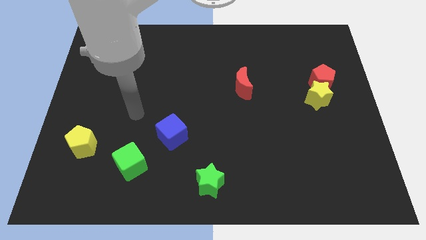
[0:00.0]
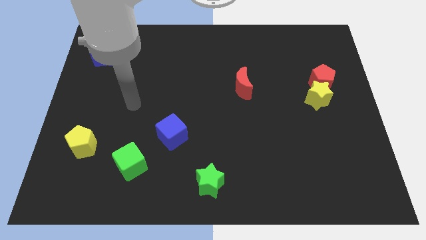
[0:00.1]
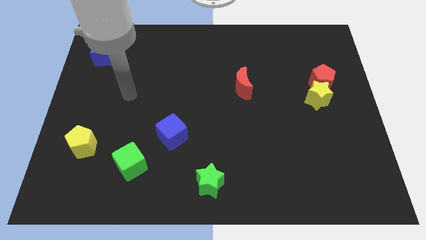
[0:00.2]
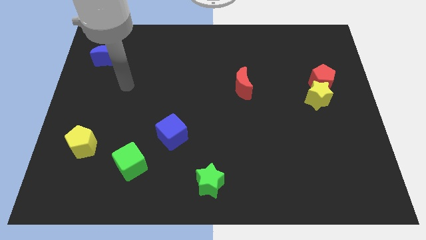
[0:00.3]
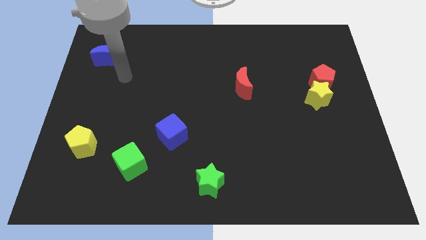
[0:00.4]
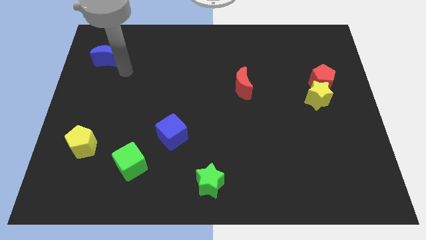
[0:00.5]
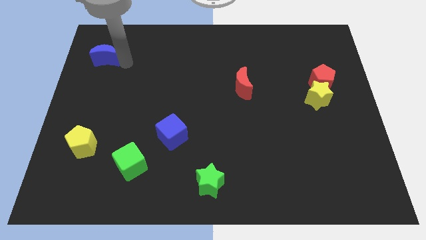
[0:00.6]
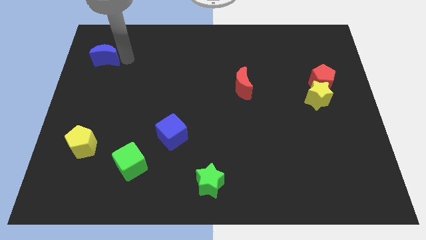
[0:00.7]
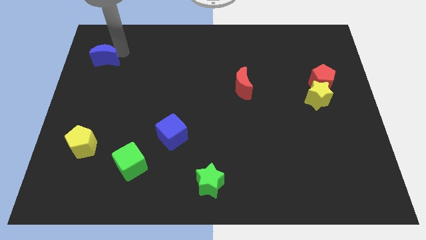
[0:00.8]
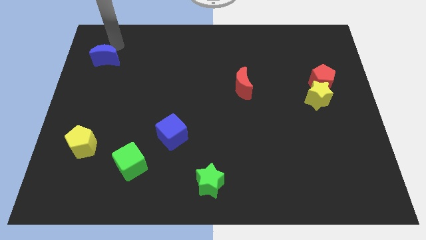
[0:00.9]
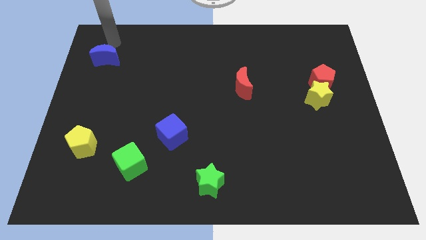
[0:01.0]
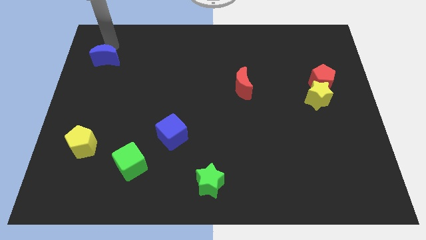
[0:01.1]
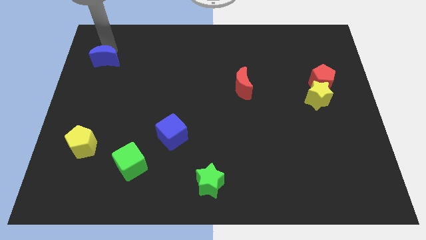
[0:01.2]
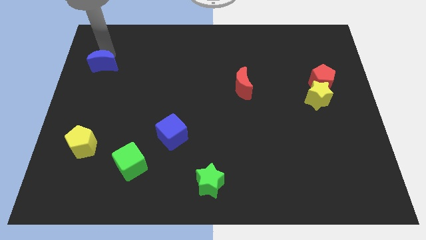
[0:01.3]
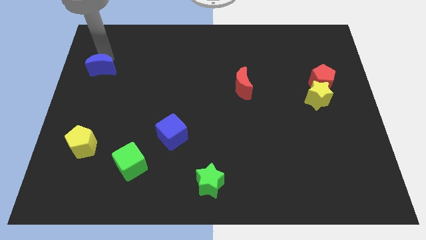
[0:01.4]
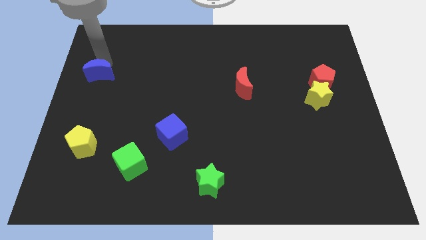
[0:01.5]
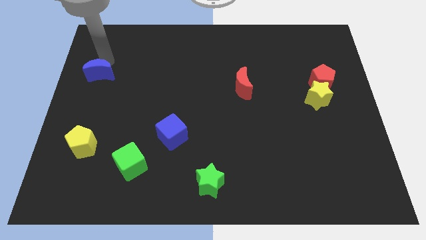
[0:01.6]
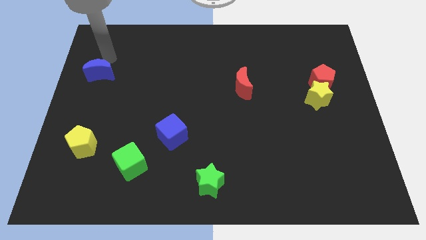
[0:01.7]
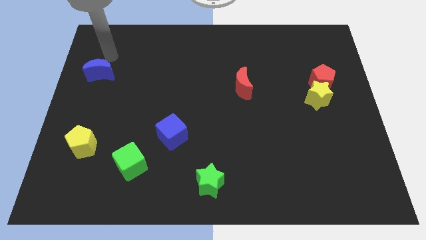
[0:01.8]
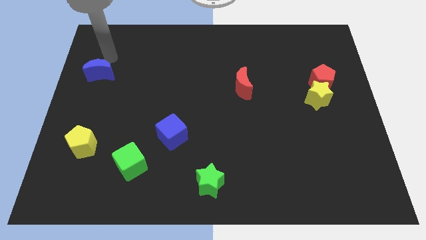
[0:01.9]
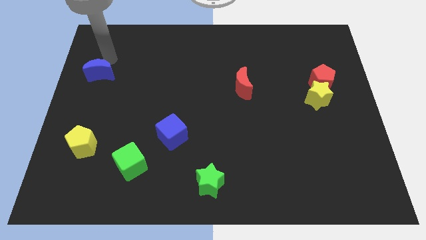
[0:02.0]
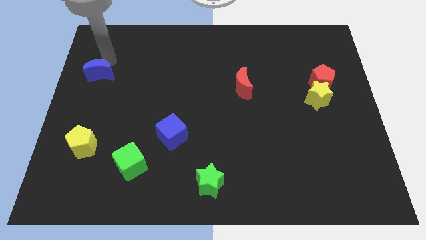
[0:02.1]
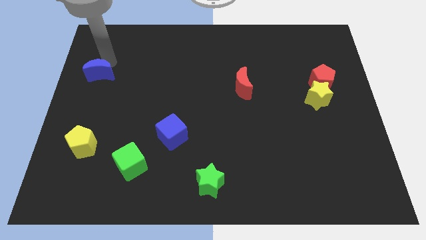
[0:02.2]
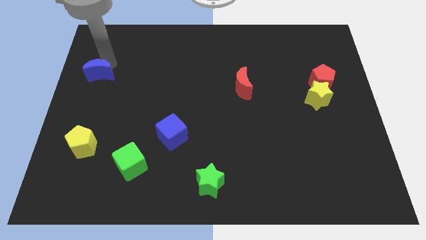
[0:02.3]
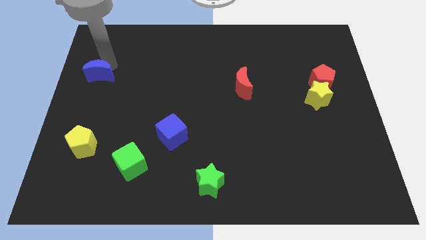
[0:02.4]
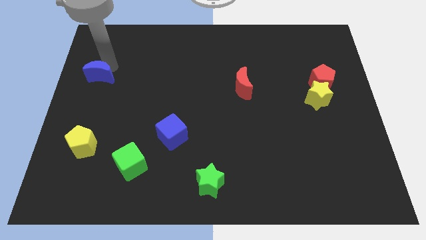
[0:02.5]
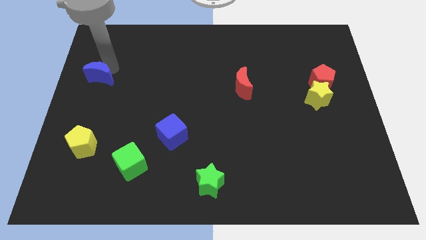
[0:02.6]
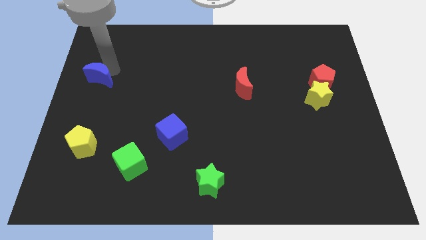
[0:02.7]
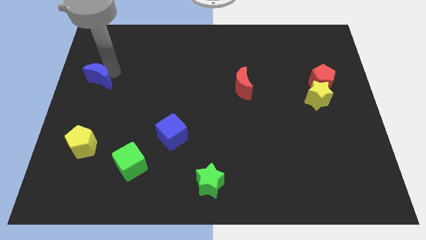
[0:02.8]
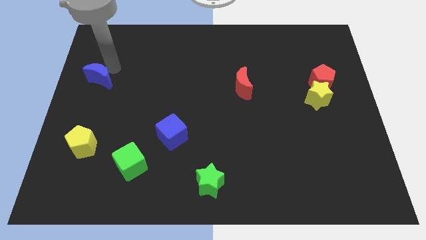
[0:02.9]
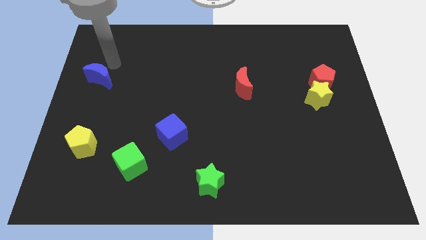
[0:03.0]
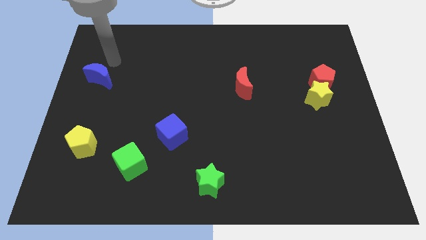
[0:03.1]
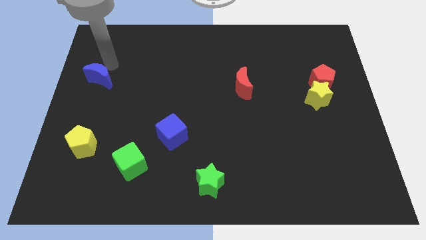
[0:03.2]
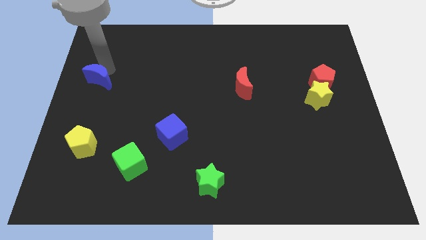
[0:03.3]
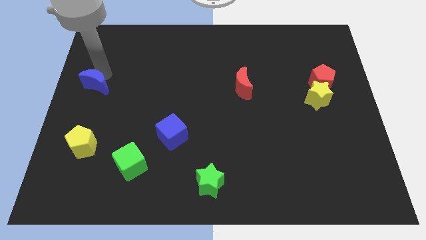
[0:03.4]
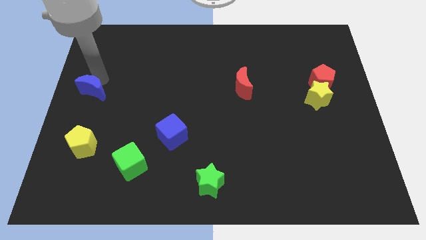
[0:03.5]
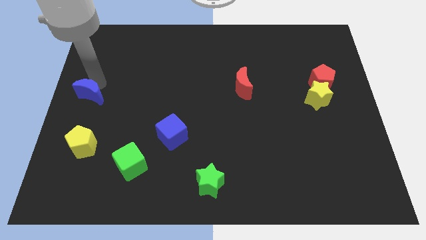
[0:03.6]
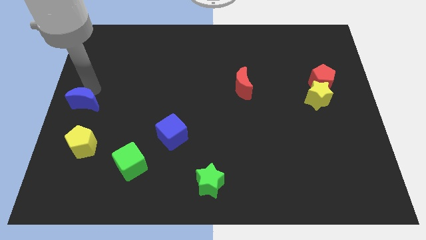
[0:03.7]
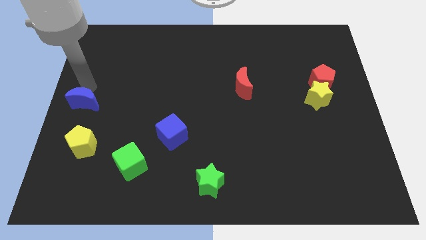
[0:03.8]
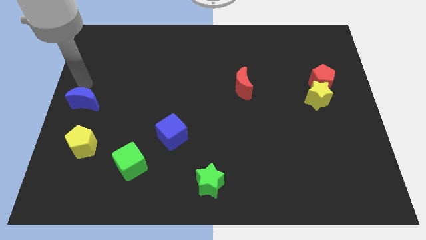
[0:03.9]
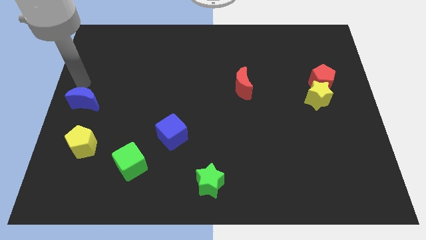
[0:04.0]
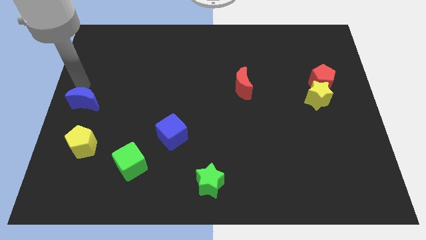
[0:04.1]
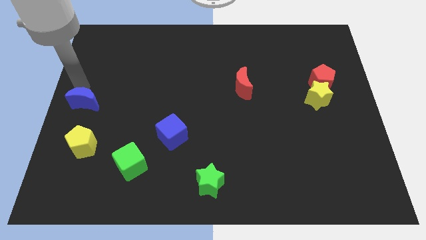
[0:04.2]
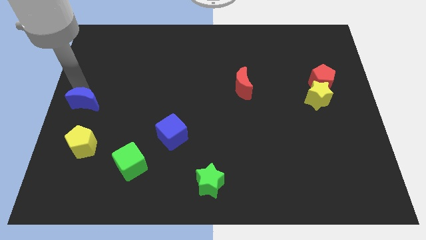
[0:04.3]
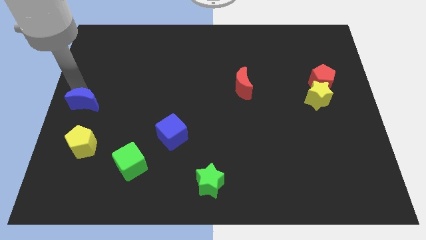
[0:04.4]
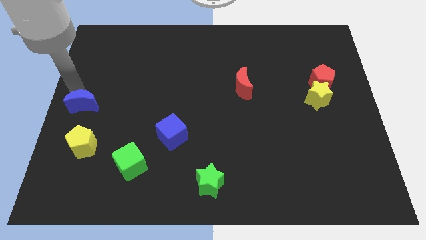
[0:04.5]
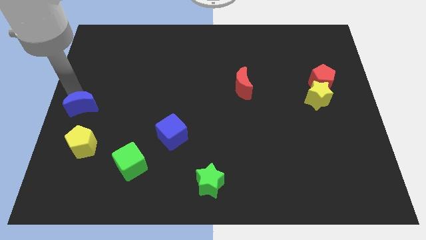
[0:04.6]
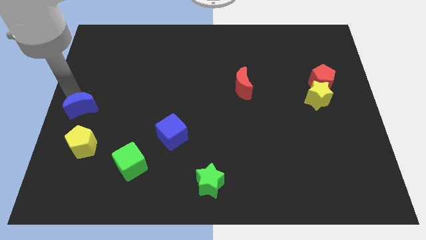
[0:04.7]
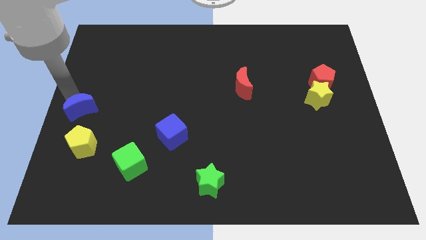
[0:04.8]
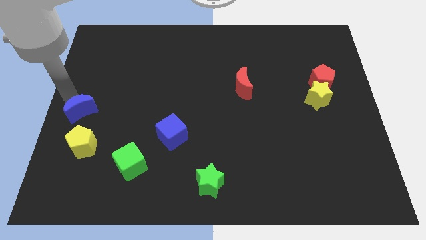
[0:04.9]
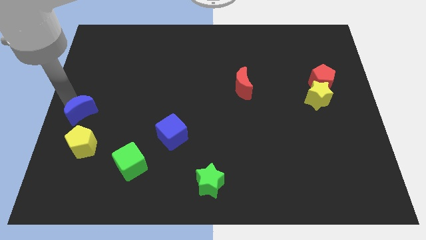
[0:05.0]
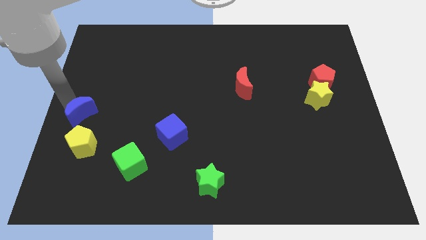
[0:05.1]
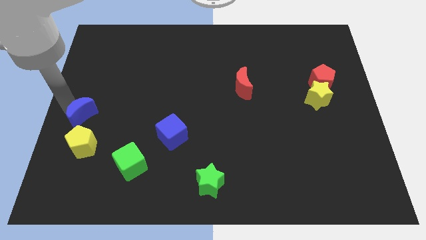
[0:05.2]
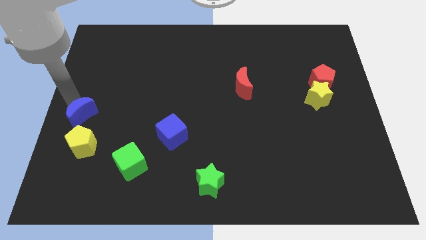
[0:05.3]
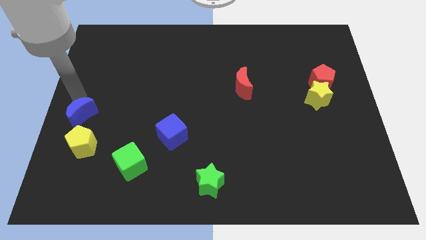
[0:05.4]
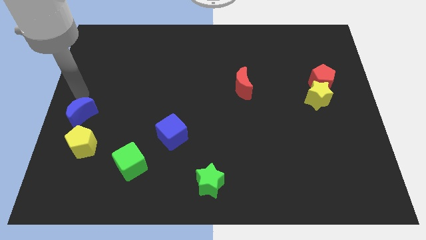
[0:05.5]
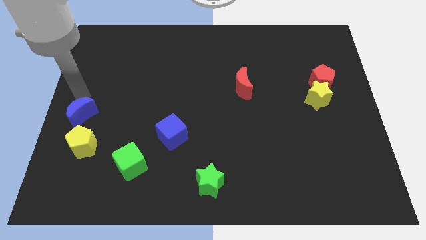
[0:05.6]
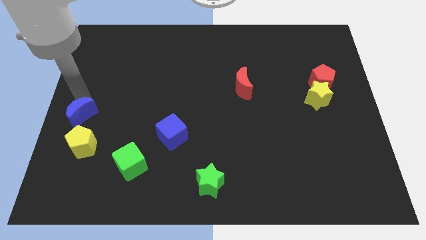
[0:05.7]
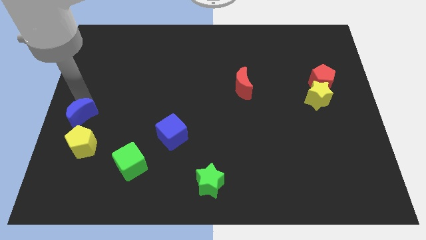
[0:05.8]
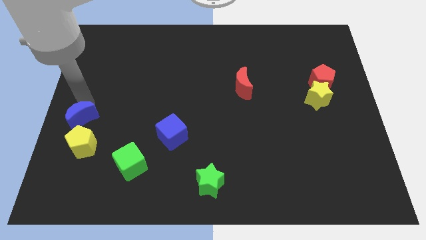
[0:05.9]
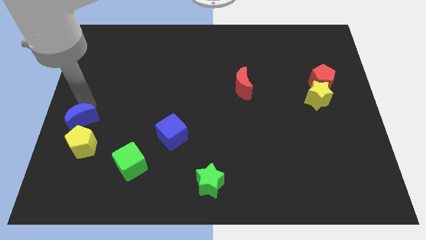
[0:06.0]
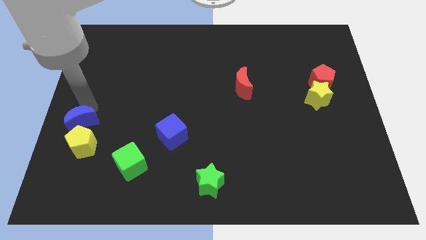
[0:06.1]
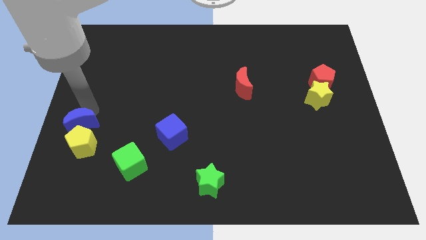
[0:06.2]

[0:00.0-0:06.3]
slide the blue moon towards the yellow pentagon

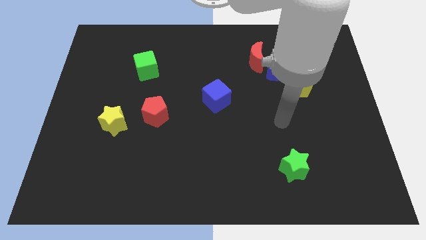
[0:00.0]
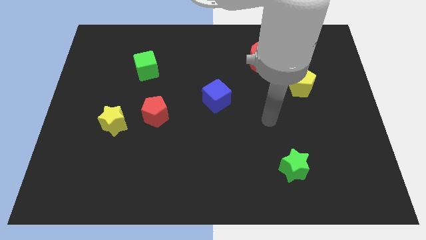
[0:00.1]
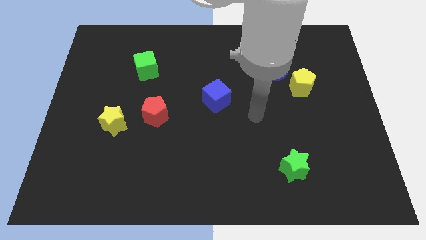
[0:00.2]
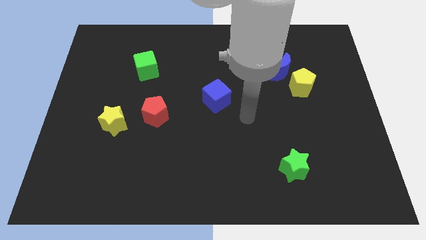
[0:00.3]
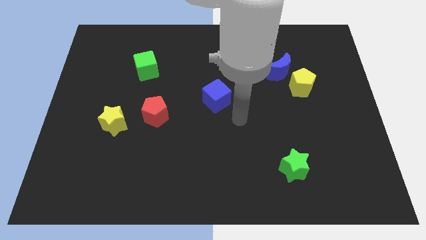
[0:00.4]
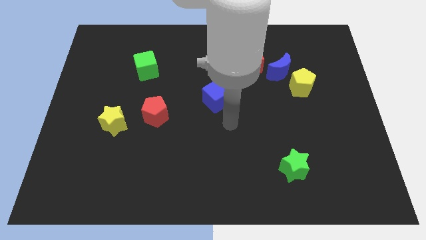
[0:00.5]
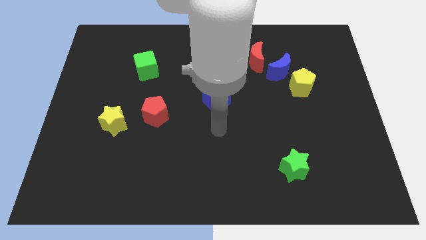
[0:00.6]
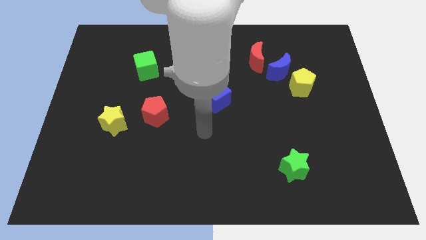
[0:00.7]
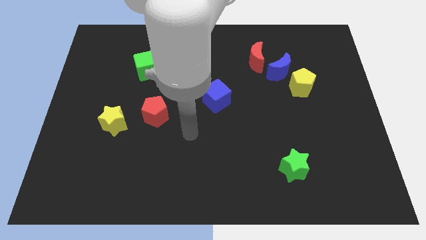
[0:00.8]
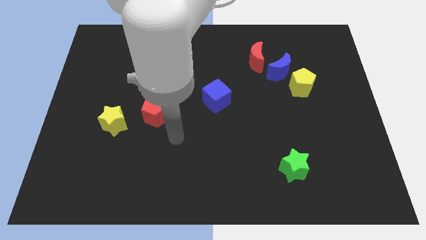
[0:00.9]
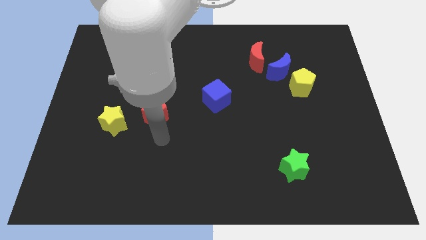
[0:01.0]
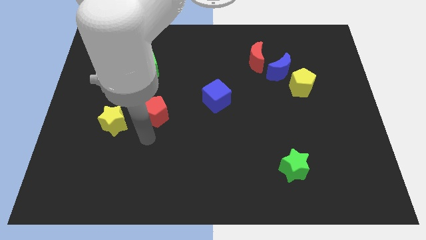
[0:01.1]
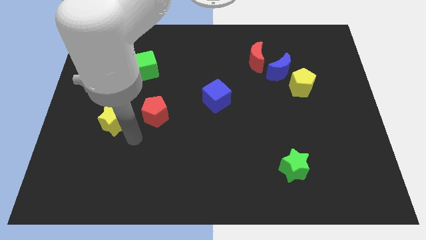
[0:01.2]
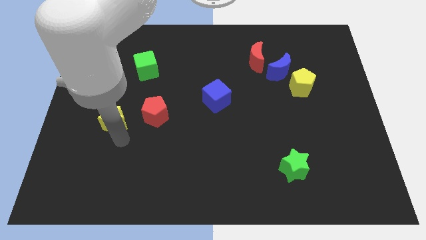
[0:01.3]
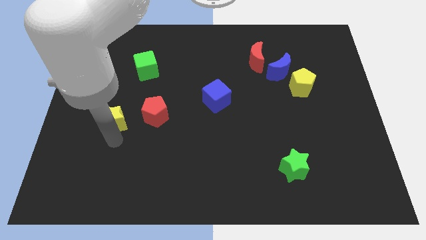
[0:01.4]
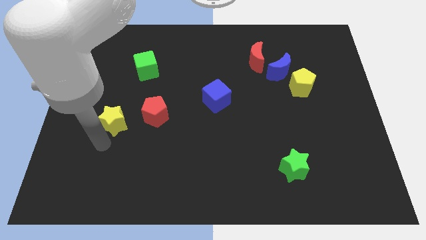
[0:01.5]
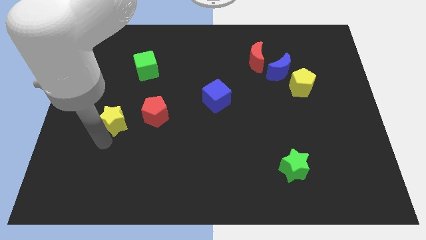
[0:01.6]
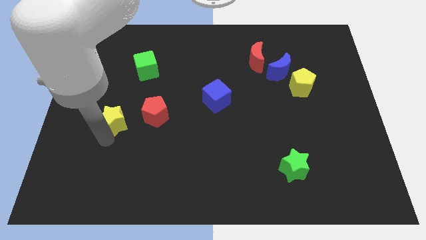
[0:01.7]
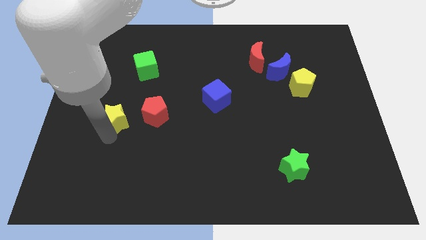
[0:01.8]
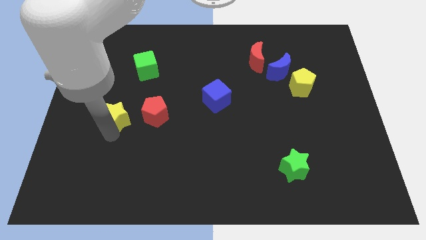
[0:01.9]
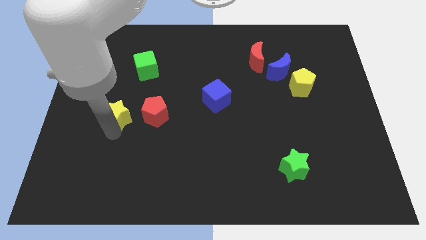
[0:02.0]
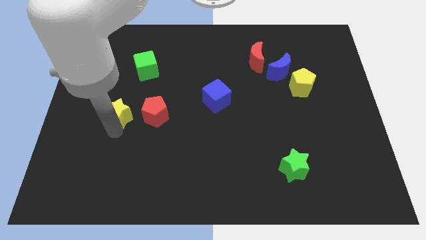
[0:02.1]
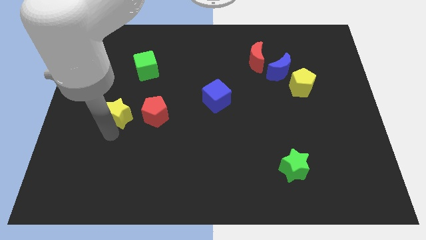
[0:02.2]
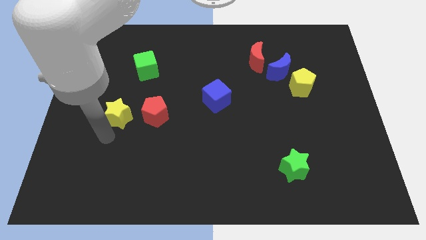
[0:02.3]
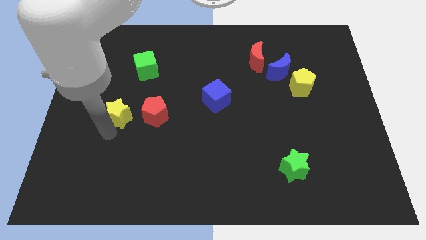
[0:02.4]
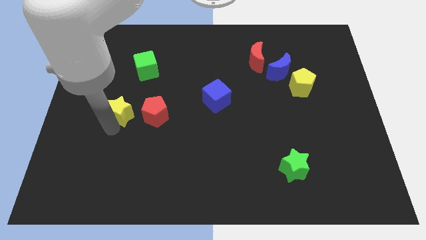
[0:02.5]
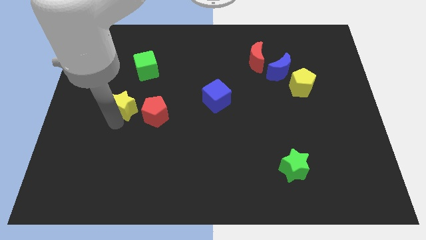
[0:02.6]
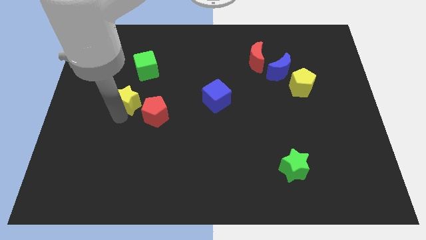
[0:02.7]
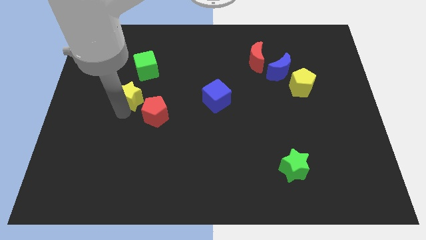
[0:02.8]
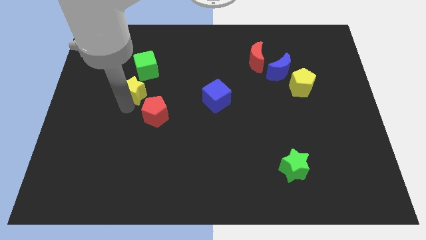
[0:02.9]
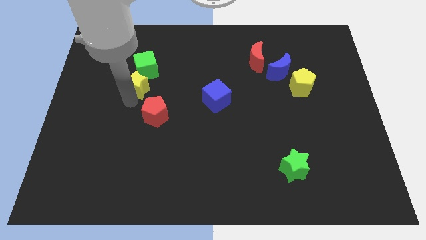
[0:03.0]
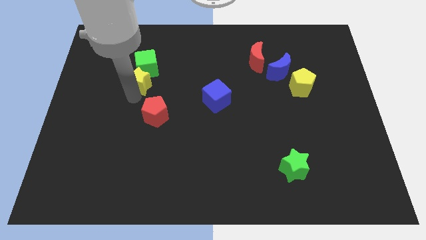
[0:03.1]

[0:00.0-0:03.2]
put the yellow star to the green cube
